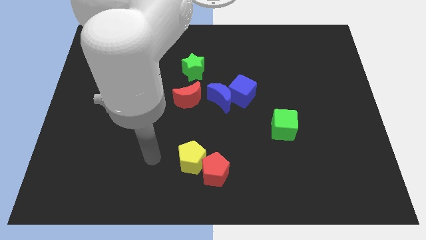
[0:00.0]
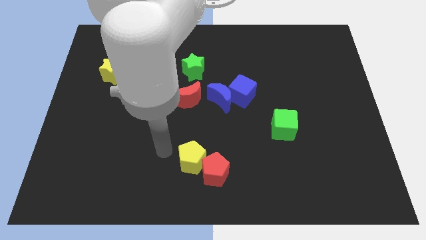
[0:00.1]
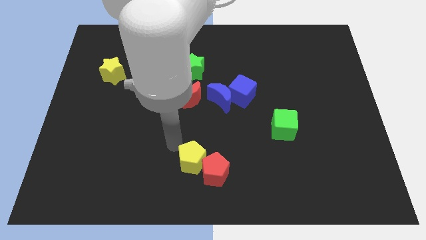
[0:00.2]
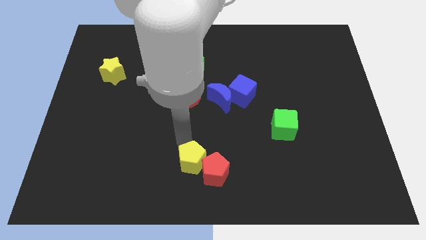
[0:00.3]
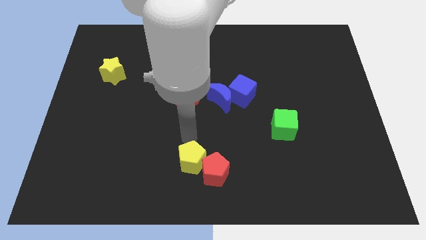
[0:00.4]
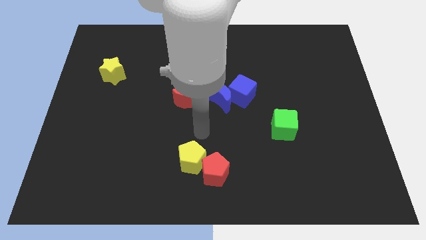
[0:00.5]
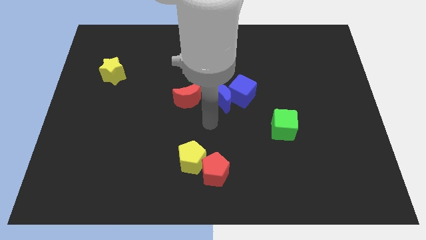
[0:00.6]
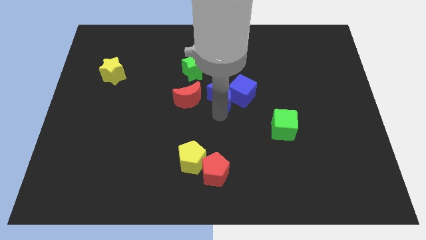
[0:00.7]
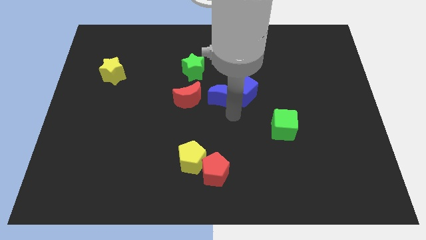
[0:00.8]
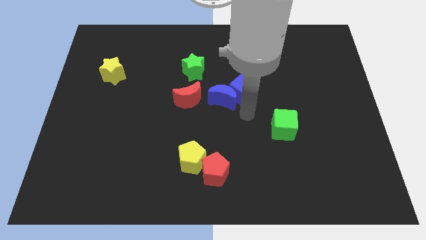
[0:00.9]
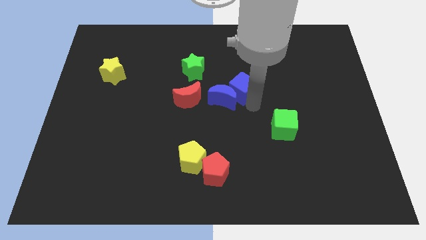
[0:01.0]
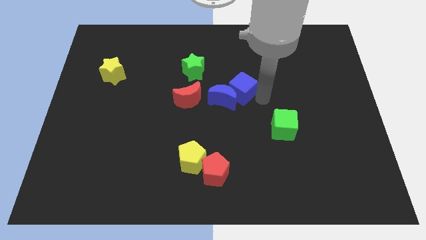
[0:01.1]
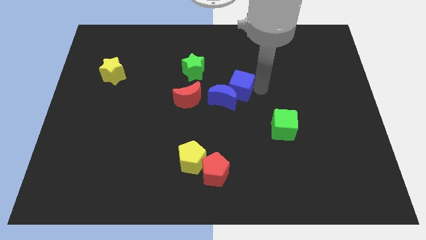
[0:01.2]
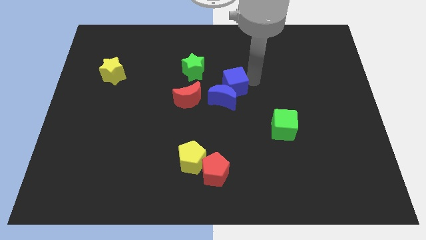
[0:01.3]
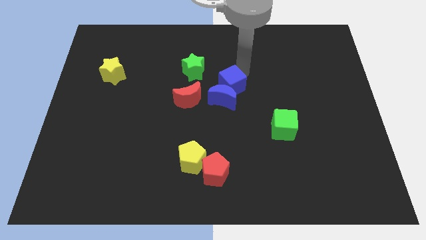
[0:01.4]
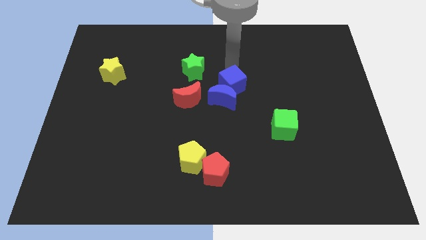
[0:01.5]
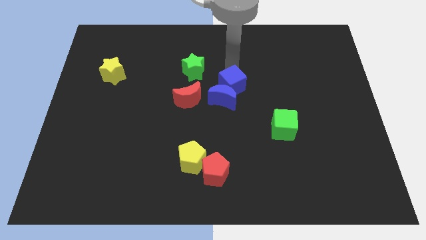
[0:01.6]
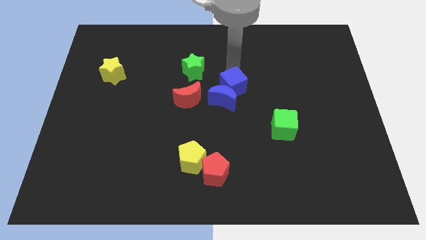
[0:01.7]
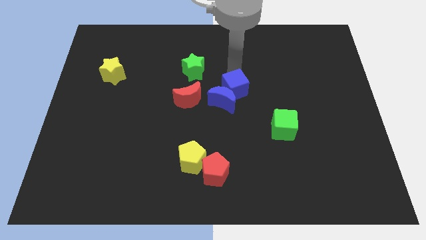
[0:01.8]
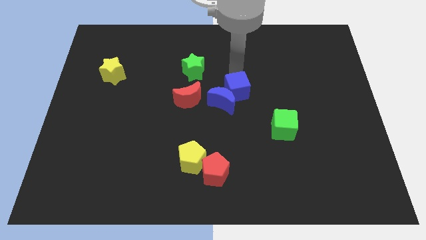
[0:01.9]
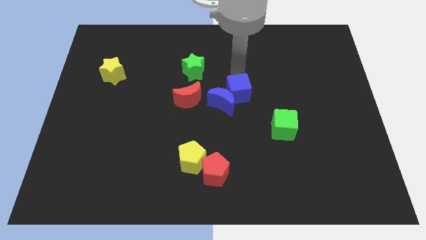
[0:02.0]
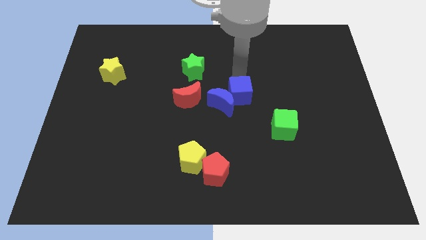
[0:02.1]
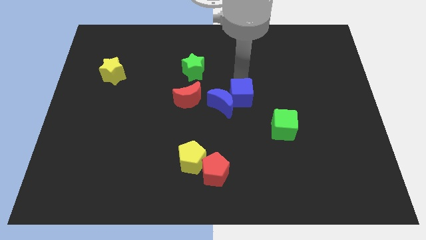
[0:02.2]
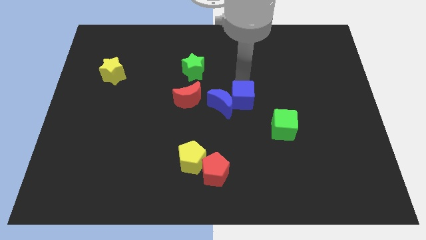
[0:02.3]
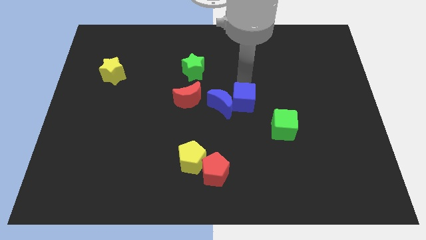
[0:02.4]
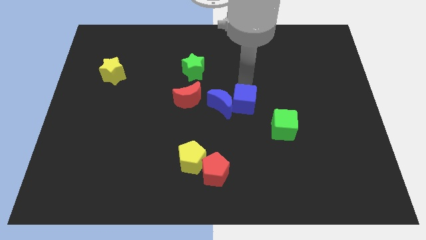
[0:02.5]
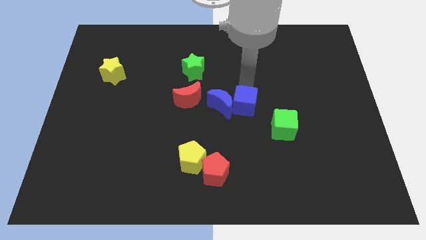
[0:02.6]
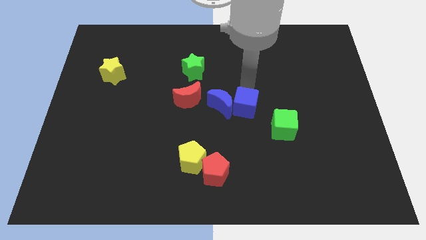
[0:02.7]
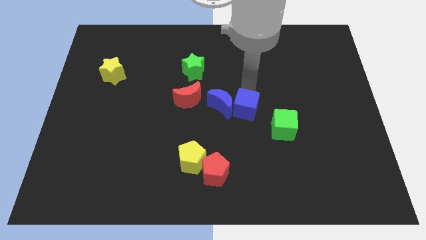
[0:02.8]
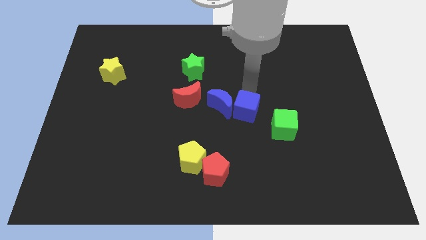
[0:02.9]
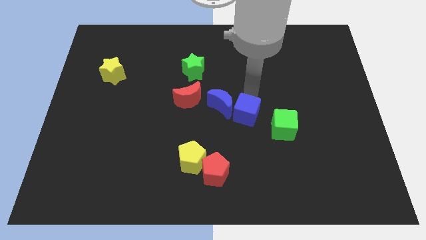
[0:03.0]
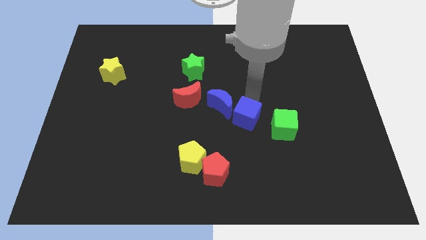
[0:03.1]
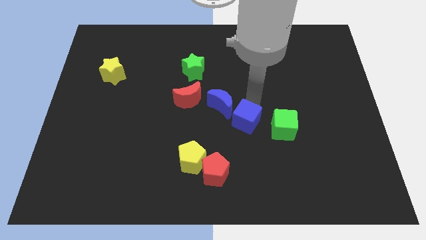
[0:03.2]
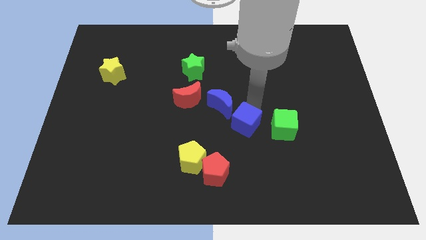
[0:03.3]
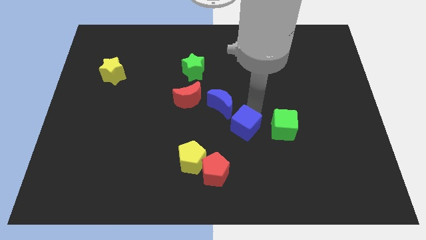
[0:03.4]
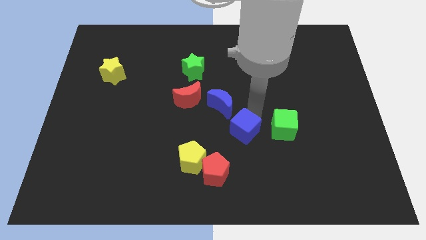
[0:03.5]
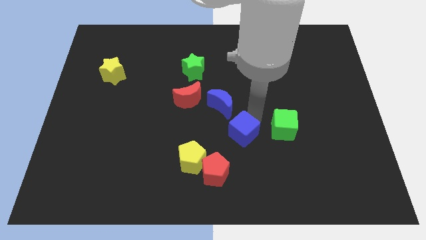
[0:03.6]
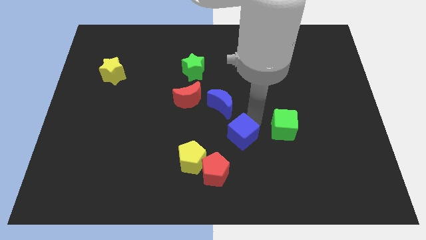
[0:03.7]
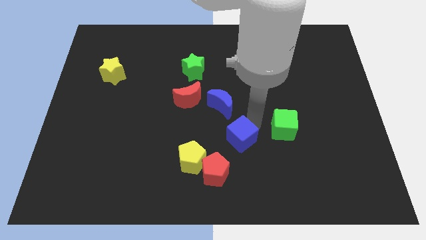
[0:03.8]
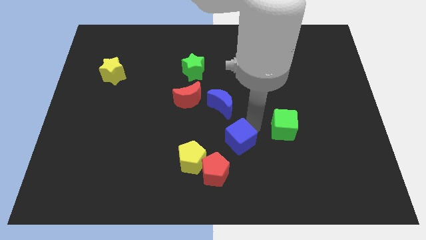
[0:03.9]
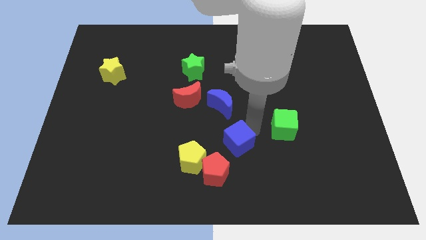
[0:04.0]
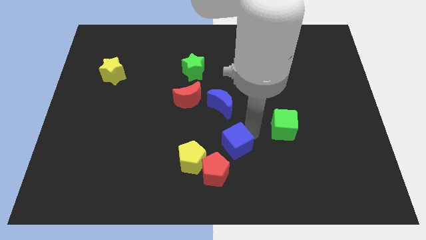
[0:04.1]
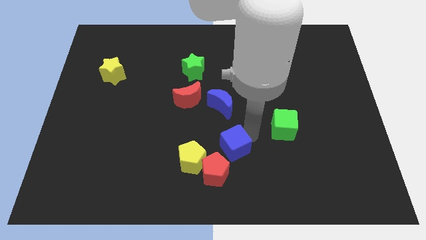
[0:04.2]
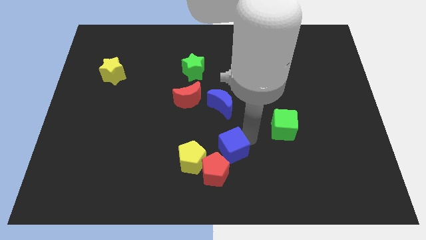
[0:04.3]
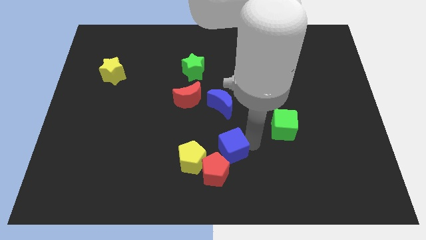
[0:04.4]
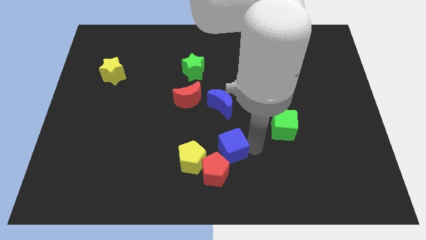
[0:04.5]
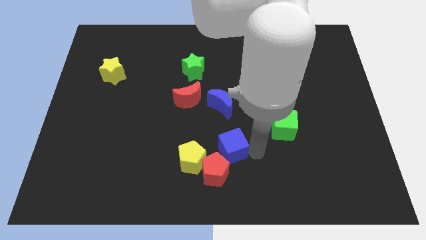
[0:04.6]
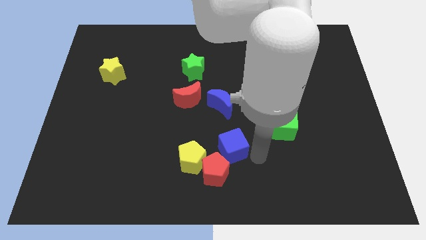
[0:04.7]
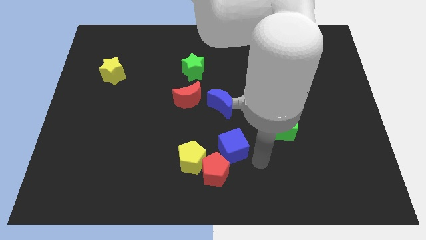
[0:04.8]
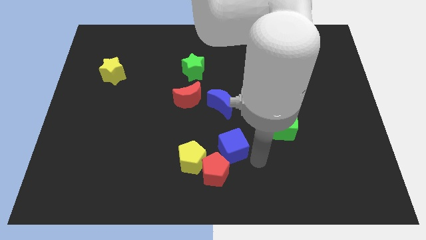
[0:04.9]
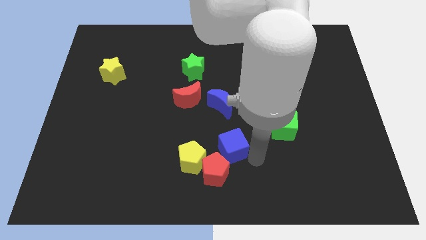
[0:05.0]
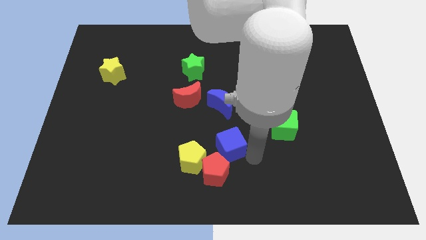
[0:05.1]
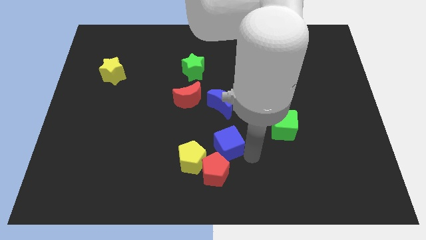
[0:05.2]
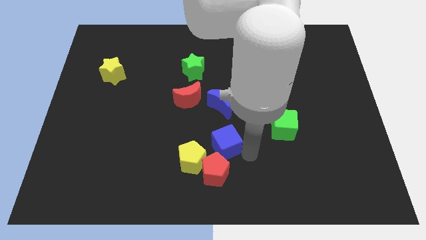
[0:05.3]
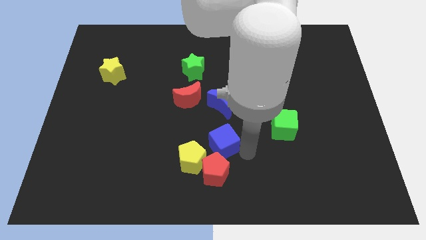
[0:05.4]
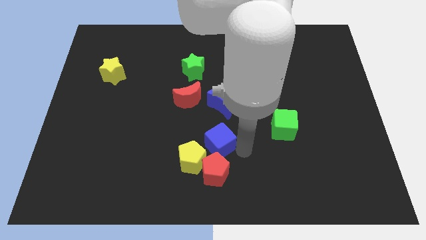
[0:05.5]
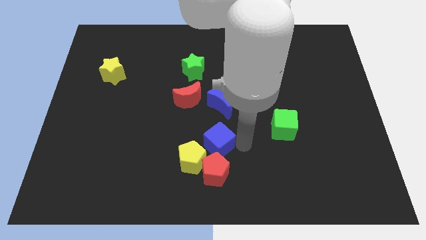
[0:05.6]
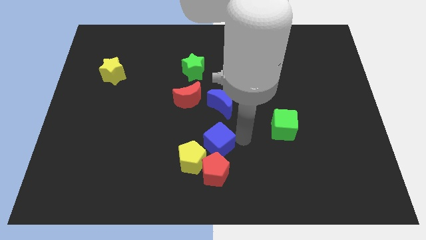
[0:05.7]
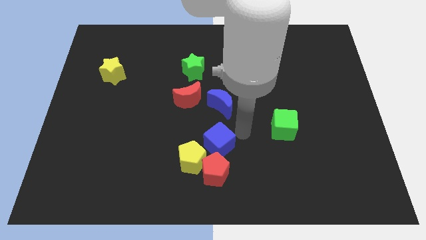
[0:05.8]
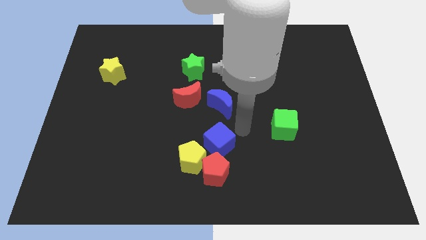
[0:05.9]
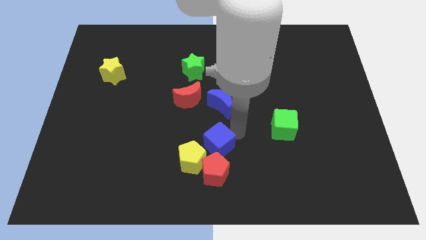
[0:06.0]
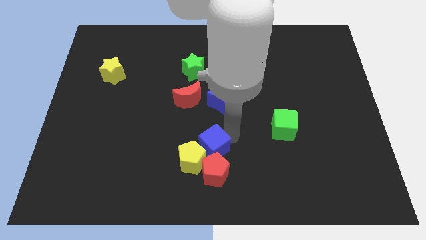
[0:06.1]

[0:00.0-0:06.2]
move the blue cube to the yellow pentagon

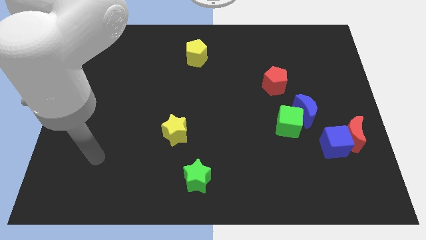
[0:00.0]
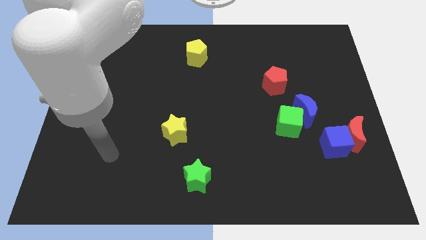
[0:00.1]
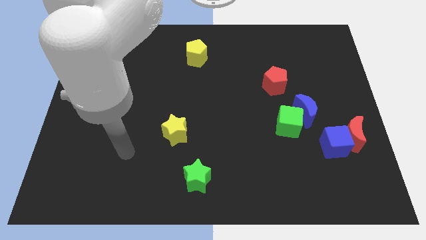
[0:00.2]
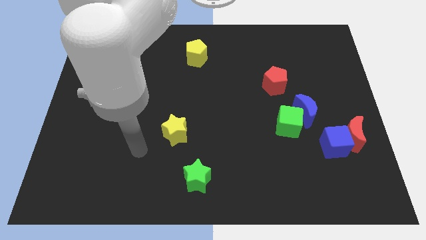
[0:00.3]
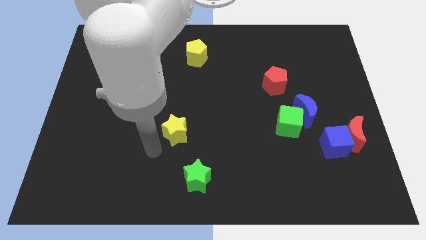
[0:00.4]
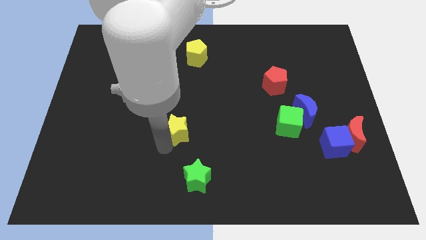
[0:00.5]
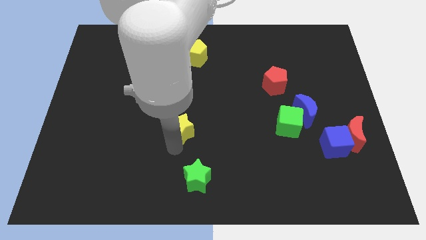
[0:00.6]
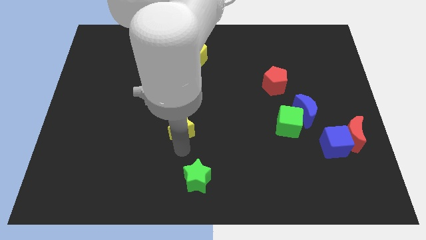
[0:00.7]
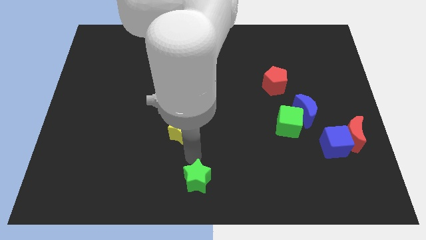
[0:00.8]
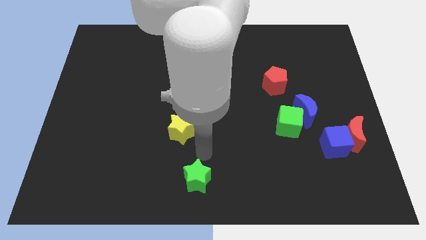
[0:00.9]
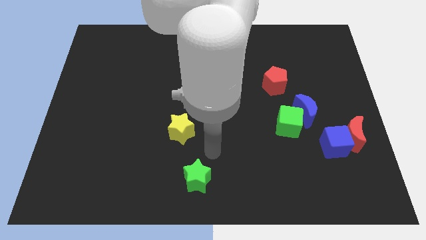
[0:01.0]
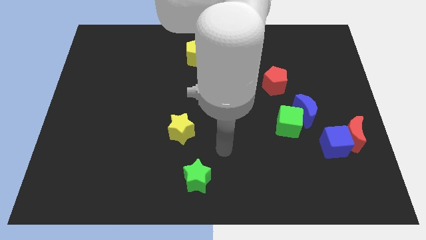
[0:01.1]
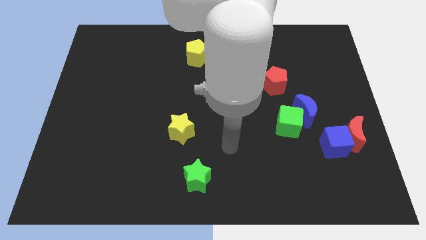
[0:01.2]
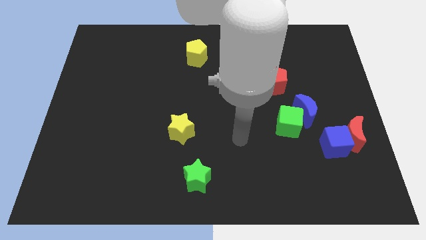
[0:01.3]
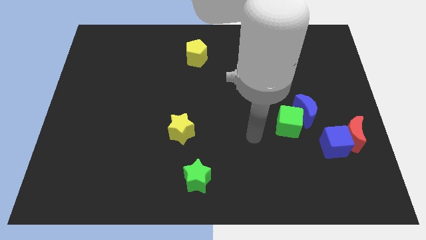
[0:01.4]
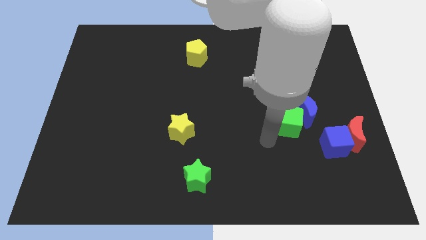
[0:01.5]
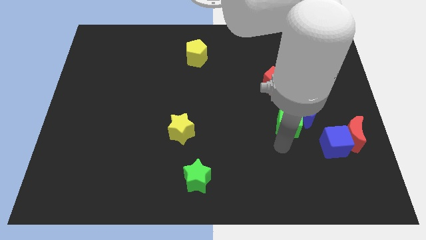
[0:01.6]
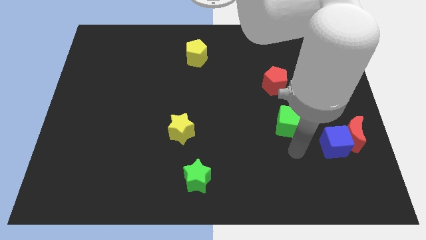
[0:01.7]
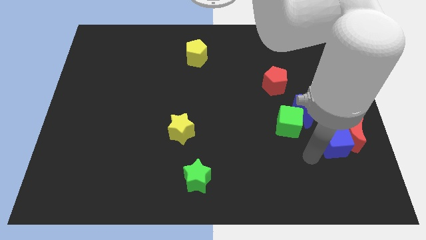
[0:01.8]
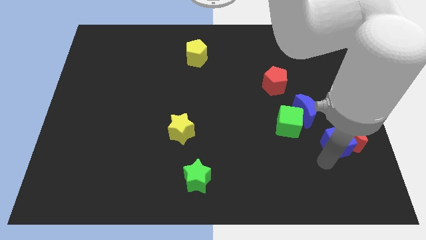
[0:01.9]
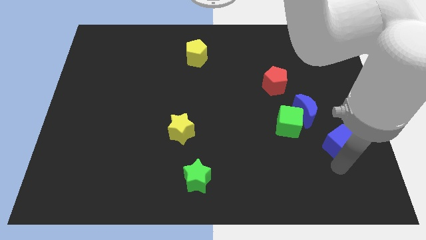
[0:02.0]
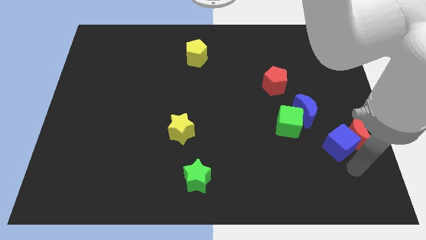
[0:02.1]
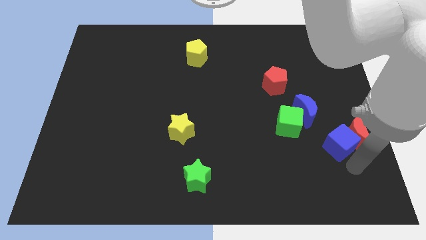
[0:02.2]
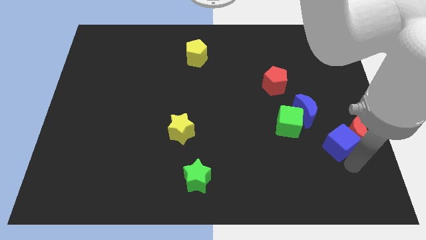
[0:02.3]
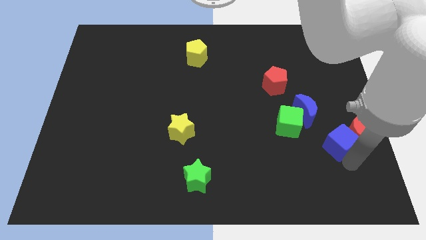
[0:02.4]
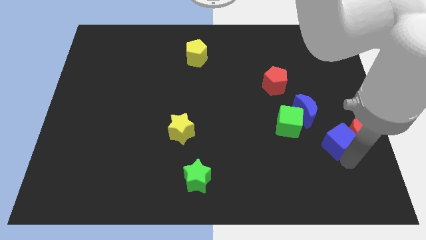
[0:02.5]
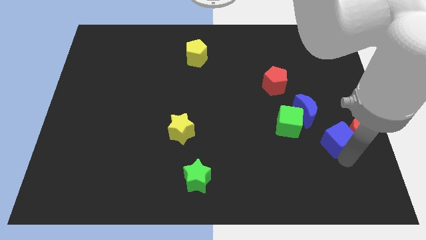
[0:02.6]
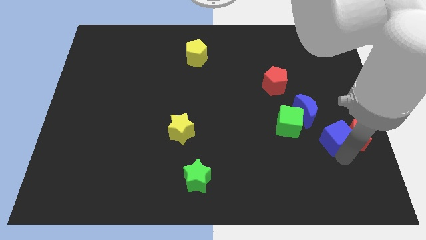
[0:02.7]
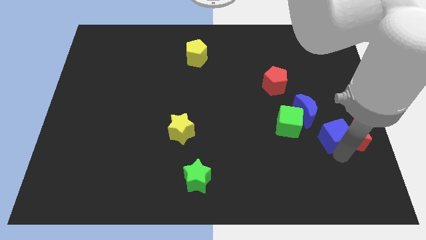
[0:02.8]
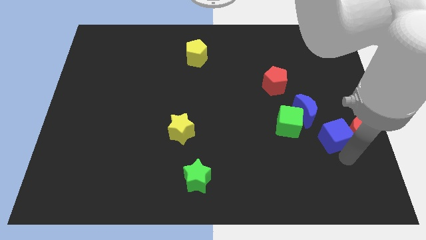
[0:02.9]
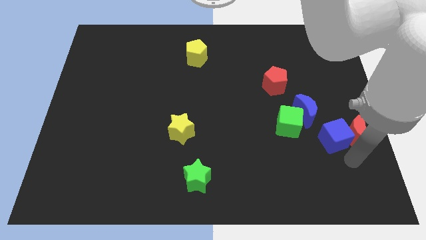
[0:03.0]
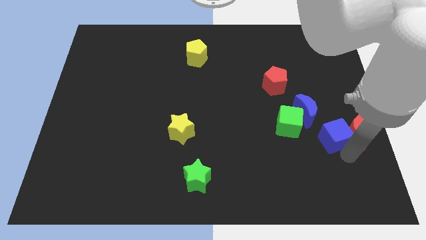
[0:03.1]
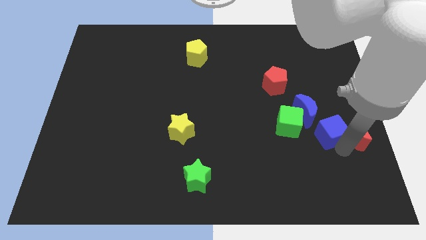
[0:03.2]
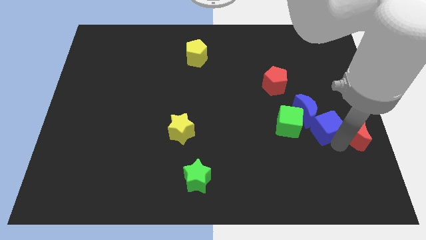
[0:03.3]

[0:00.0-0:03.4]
push the blue cube towards the blue moon
